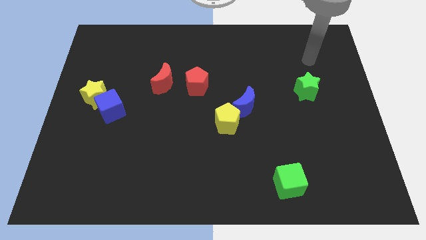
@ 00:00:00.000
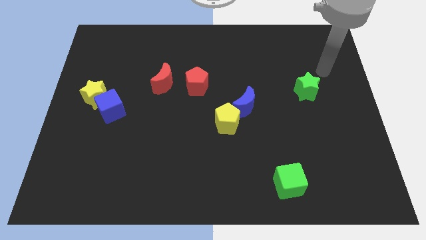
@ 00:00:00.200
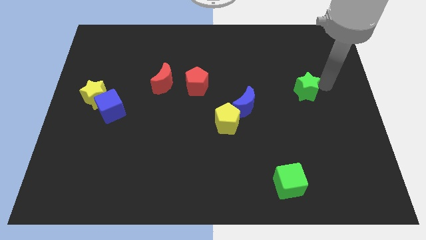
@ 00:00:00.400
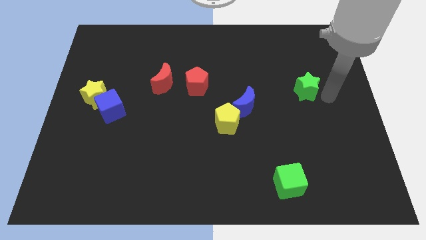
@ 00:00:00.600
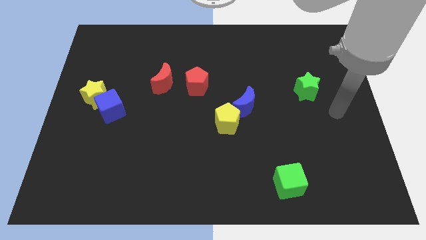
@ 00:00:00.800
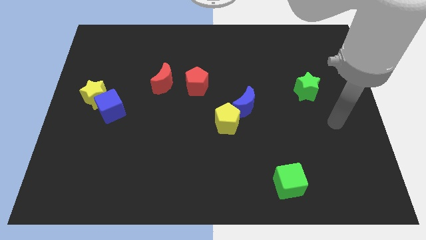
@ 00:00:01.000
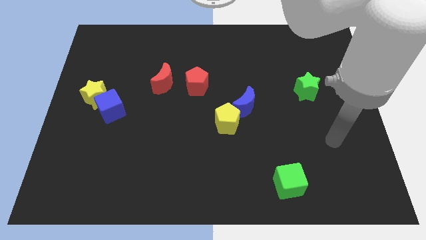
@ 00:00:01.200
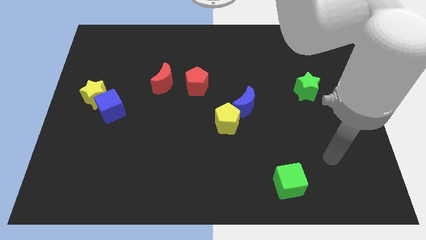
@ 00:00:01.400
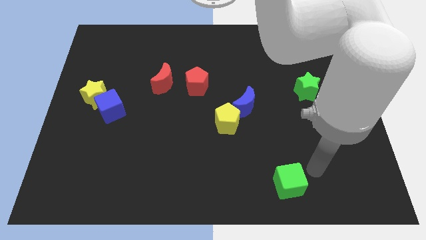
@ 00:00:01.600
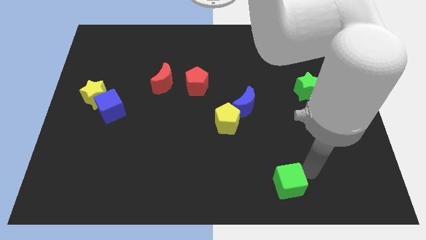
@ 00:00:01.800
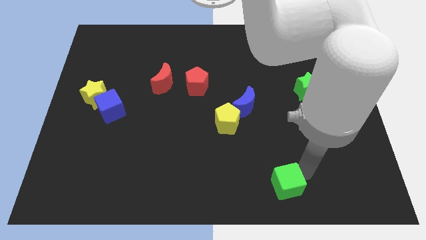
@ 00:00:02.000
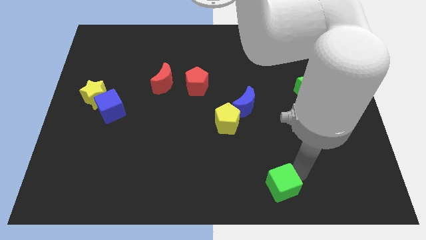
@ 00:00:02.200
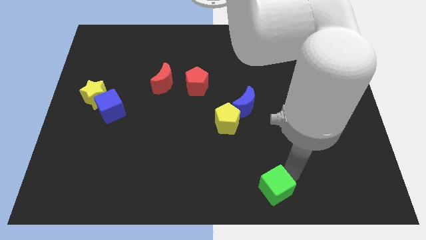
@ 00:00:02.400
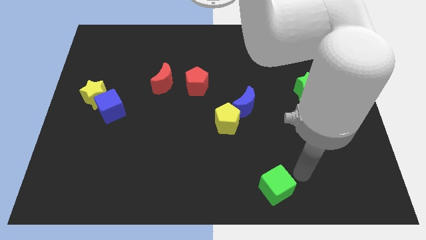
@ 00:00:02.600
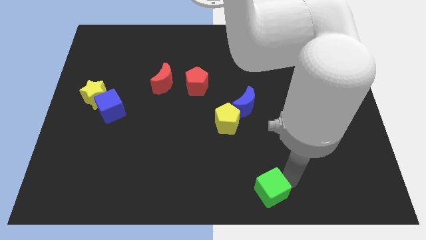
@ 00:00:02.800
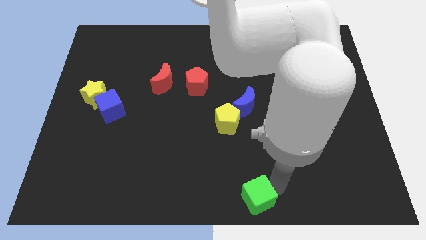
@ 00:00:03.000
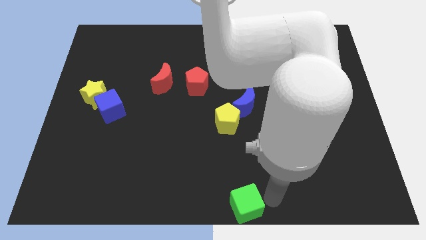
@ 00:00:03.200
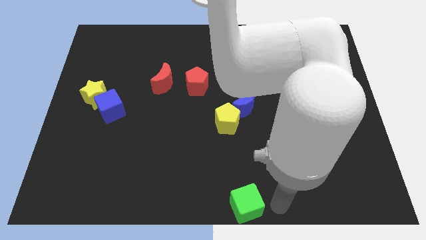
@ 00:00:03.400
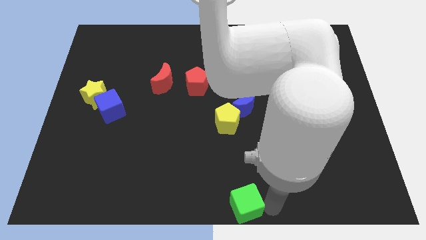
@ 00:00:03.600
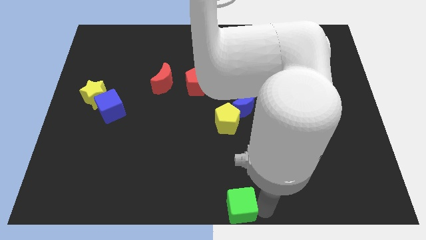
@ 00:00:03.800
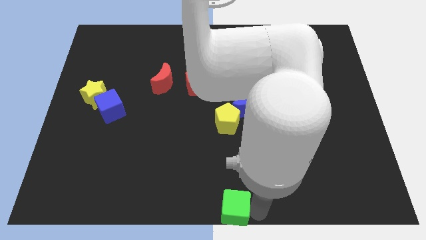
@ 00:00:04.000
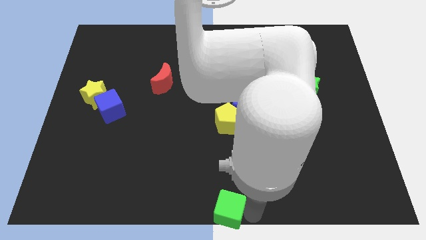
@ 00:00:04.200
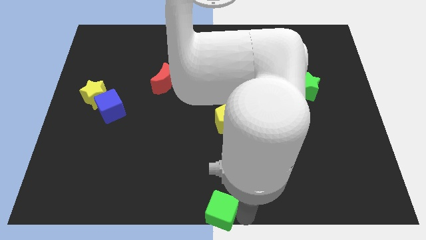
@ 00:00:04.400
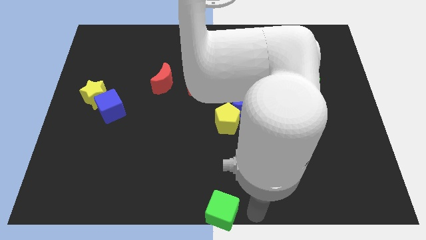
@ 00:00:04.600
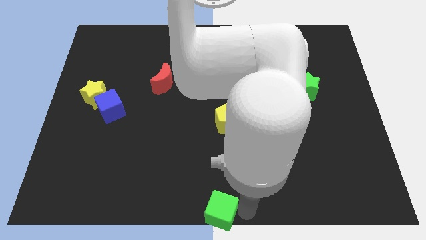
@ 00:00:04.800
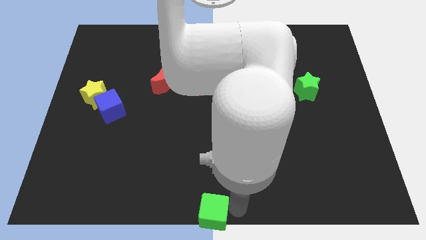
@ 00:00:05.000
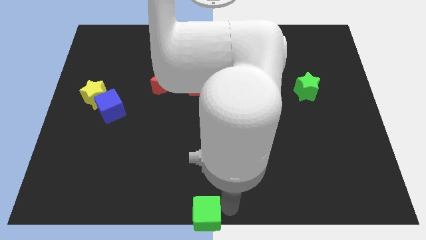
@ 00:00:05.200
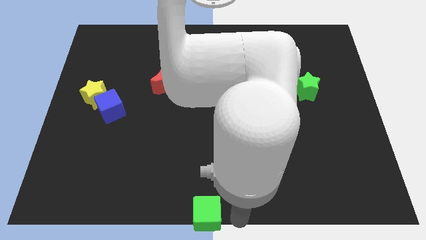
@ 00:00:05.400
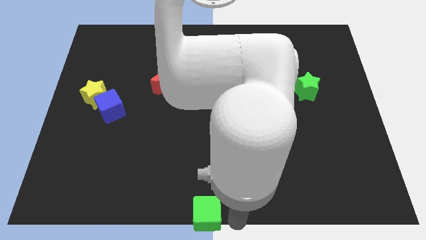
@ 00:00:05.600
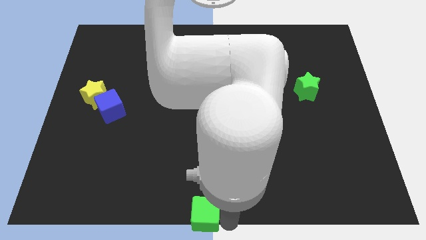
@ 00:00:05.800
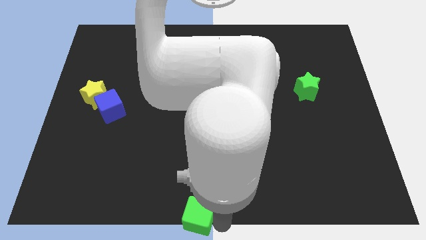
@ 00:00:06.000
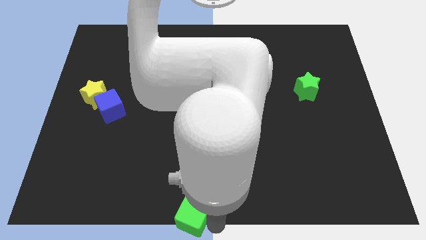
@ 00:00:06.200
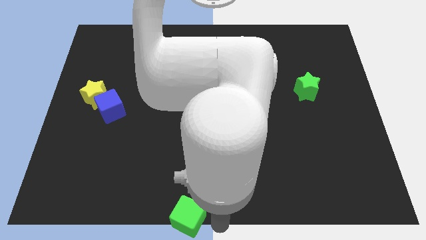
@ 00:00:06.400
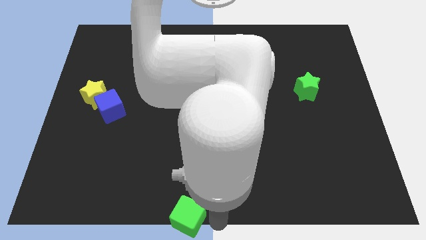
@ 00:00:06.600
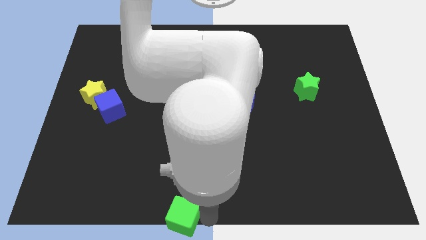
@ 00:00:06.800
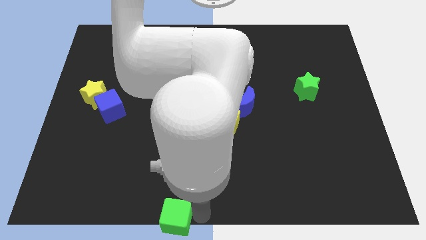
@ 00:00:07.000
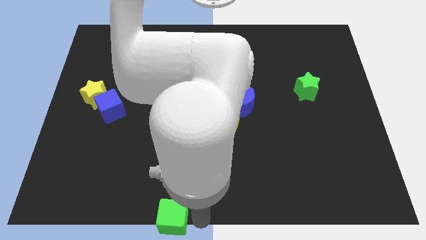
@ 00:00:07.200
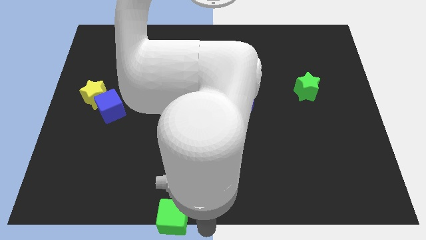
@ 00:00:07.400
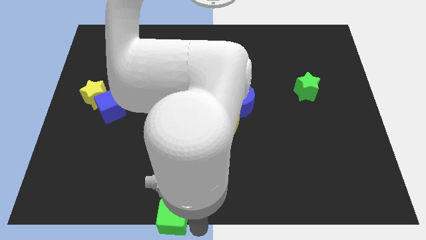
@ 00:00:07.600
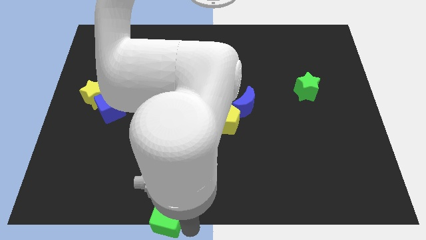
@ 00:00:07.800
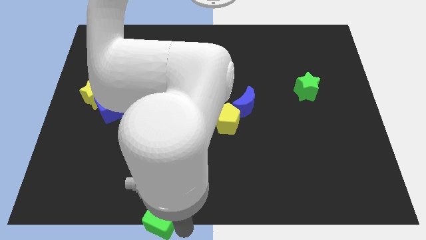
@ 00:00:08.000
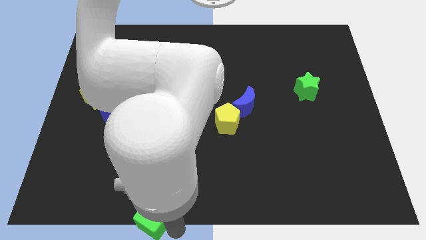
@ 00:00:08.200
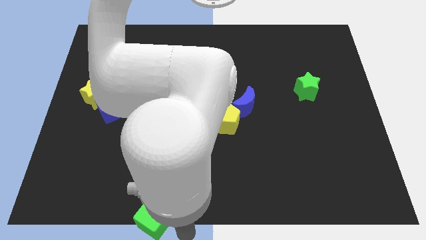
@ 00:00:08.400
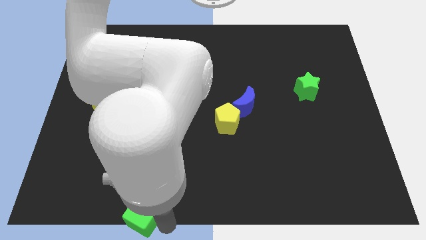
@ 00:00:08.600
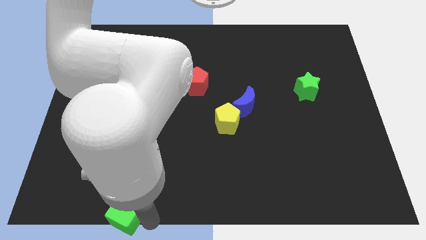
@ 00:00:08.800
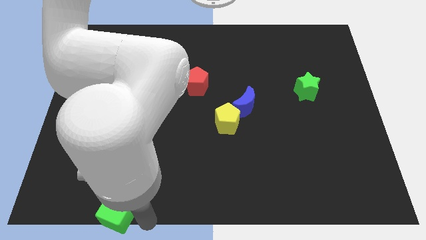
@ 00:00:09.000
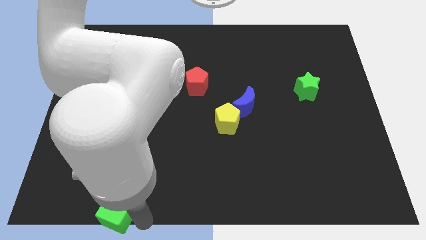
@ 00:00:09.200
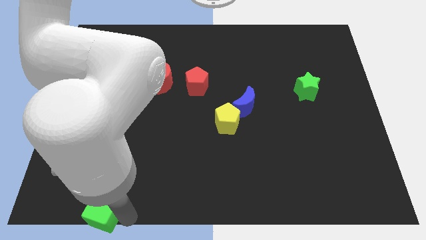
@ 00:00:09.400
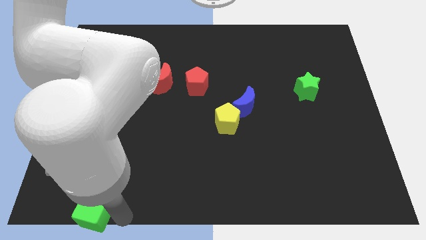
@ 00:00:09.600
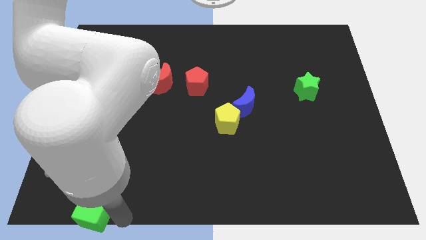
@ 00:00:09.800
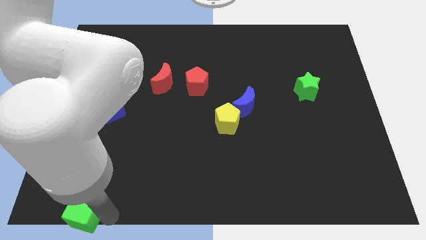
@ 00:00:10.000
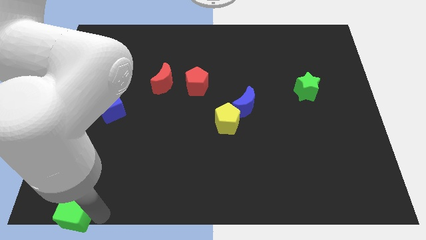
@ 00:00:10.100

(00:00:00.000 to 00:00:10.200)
put the green cube to the lower left corner

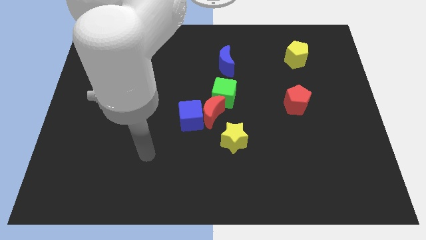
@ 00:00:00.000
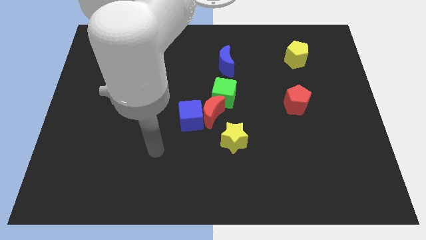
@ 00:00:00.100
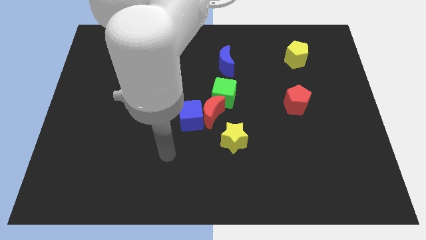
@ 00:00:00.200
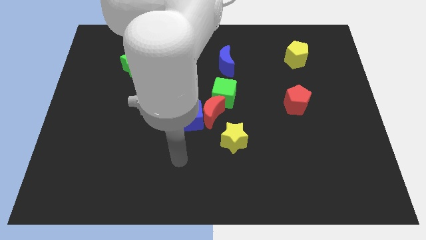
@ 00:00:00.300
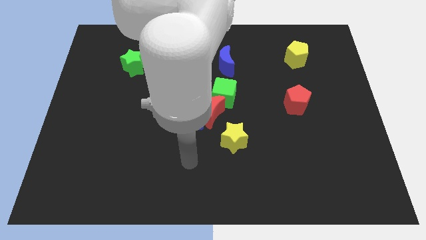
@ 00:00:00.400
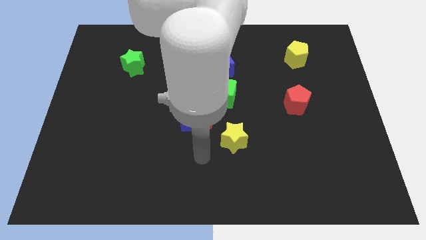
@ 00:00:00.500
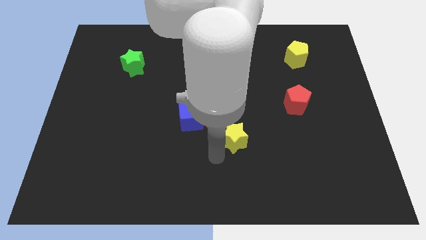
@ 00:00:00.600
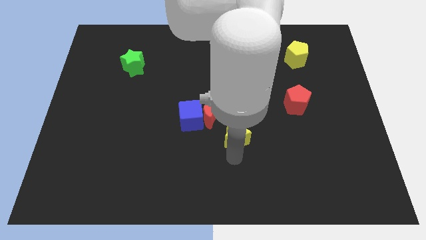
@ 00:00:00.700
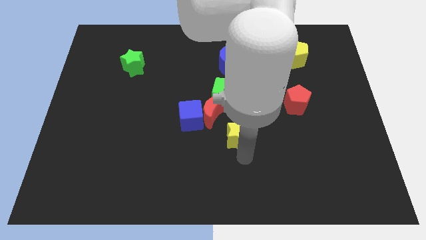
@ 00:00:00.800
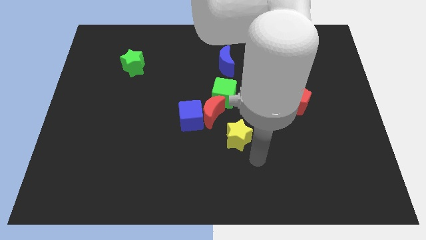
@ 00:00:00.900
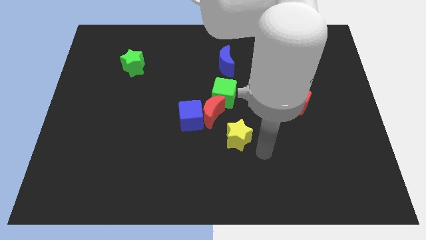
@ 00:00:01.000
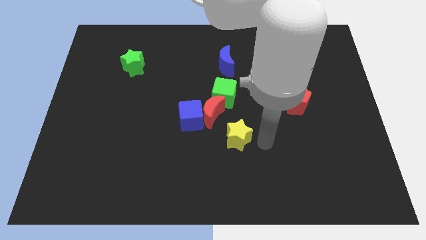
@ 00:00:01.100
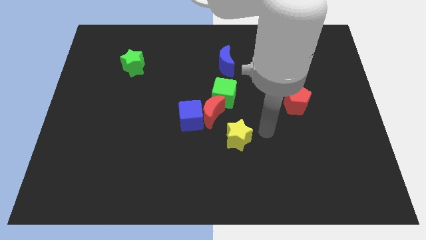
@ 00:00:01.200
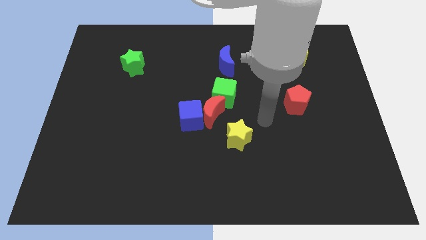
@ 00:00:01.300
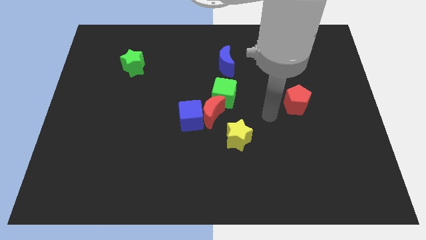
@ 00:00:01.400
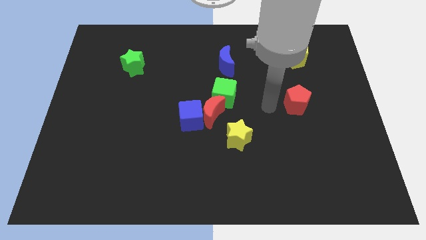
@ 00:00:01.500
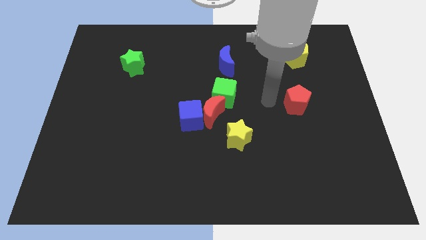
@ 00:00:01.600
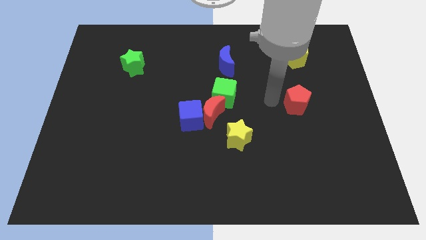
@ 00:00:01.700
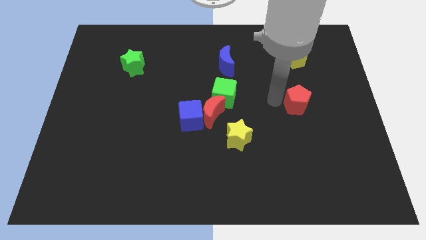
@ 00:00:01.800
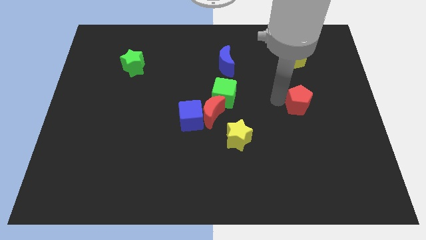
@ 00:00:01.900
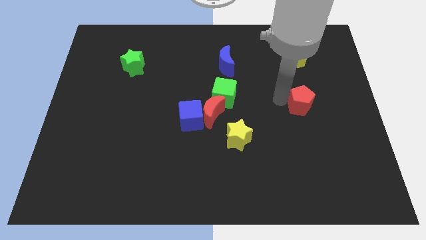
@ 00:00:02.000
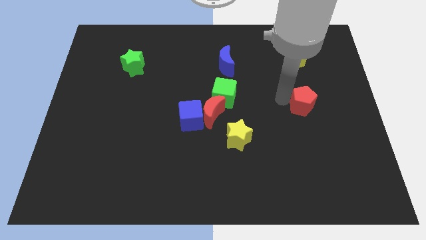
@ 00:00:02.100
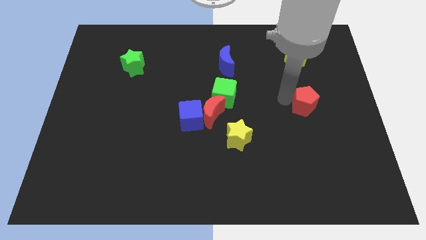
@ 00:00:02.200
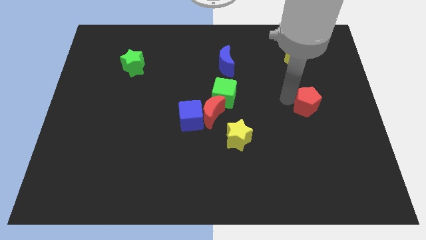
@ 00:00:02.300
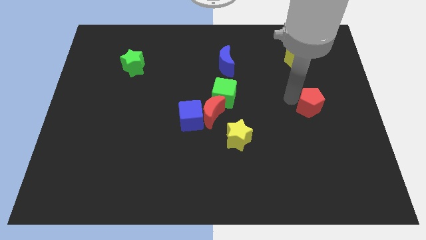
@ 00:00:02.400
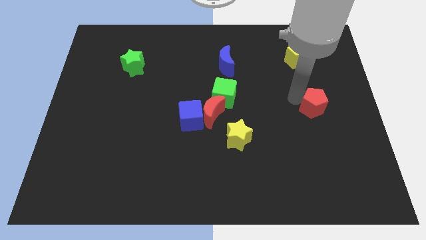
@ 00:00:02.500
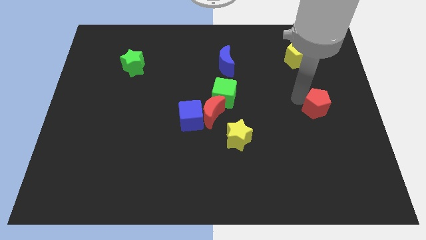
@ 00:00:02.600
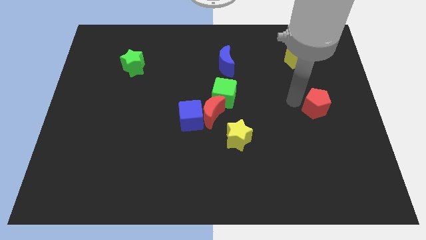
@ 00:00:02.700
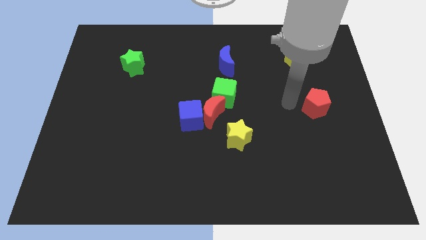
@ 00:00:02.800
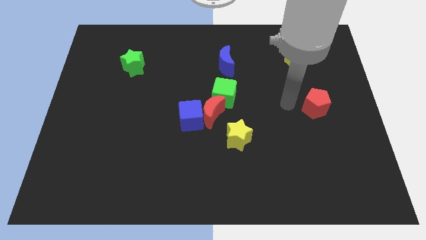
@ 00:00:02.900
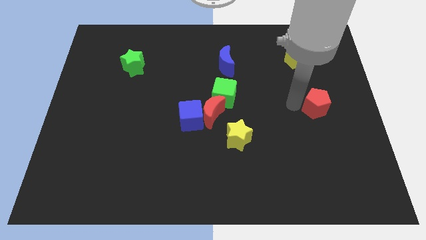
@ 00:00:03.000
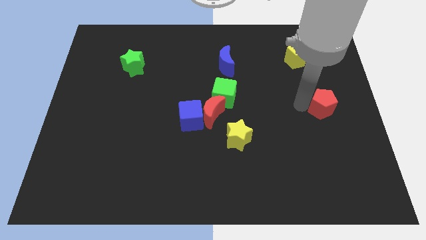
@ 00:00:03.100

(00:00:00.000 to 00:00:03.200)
slide the red pentagon to the center right
